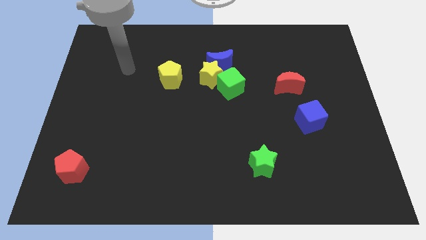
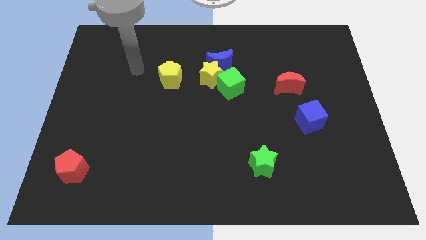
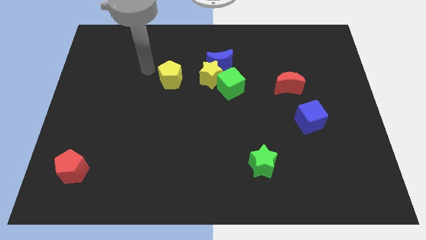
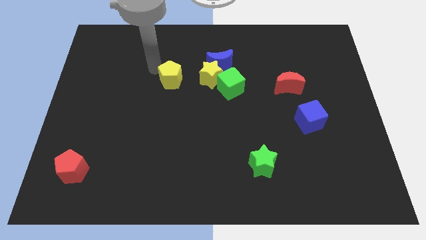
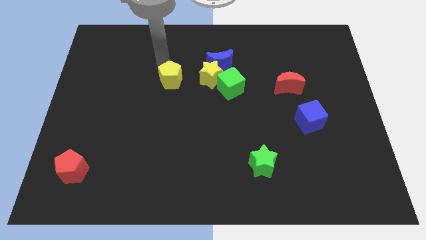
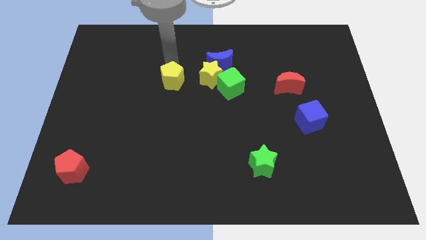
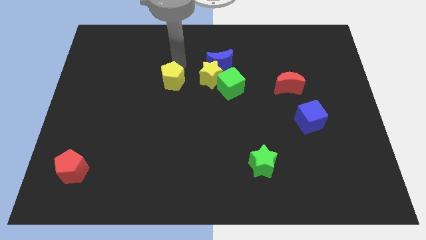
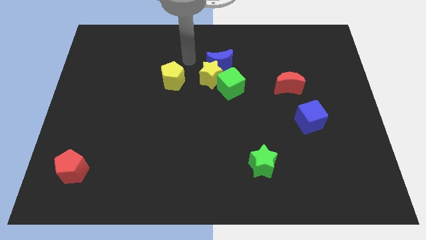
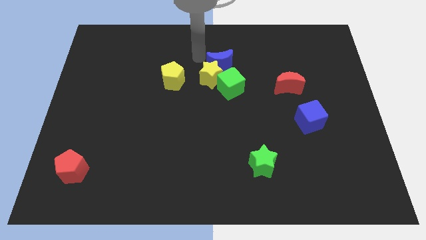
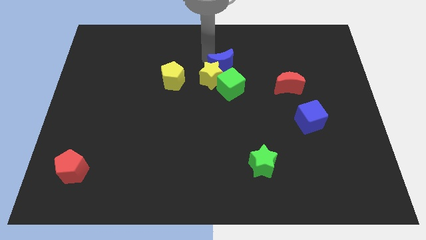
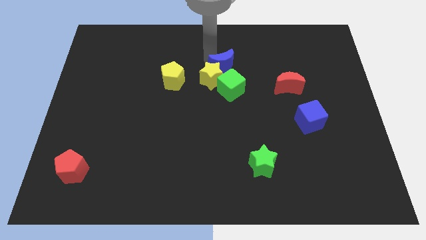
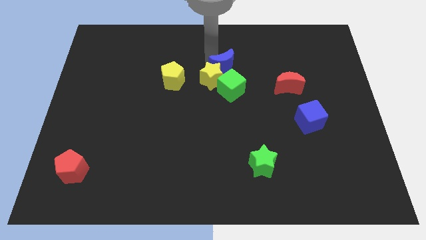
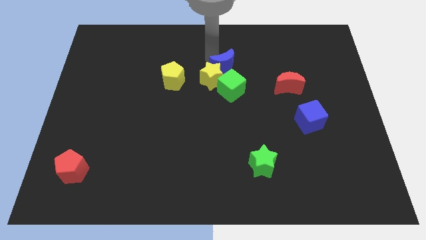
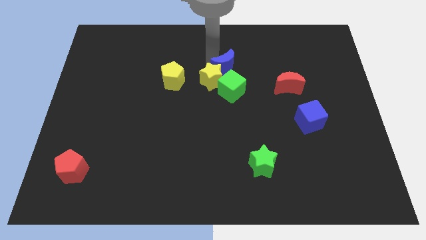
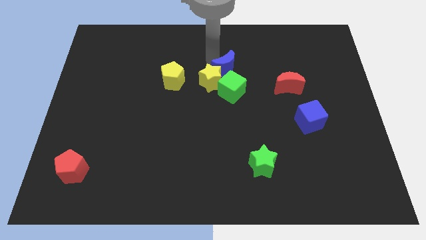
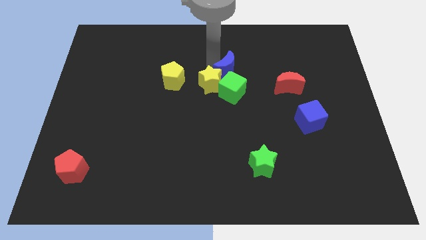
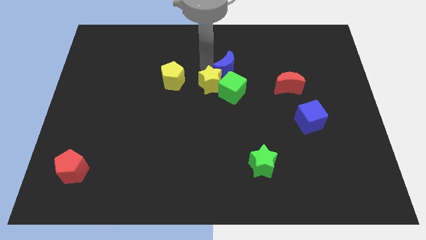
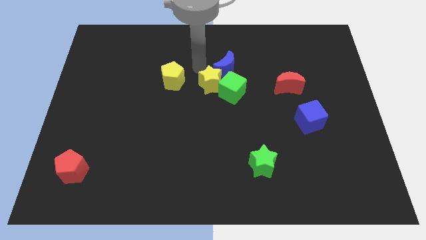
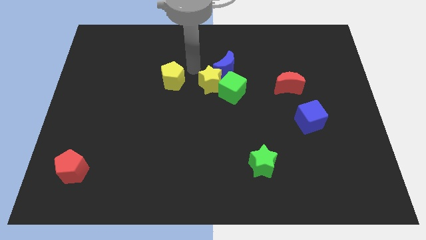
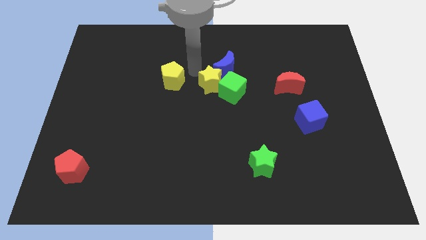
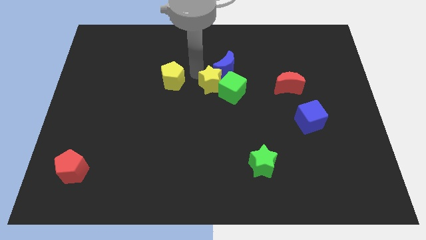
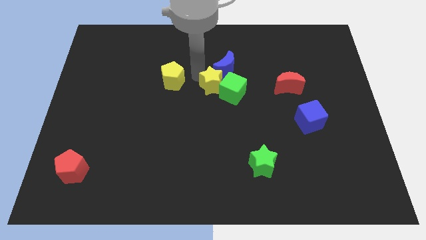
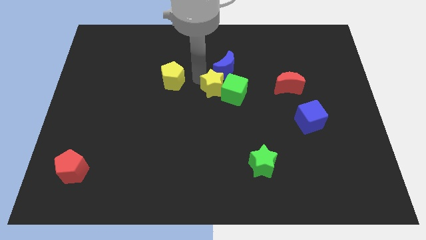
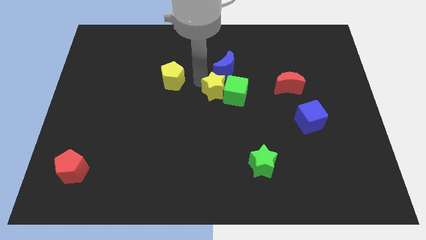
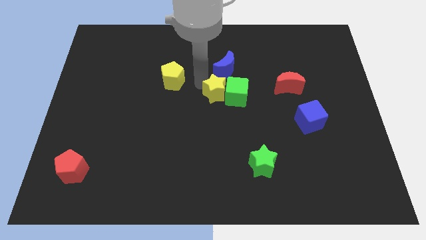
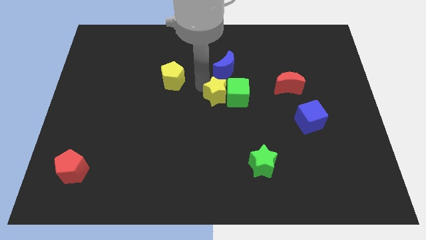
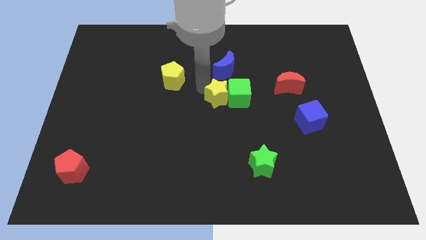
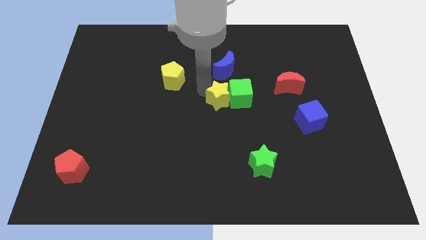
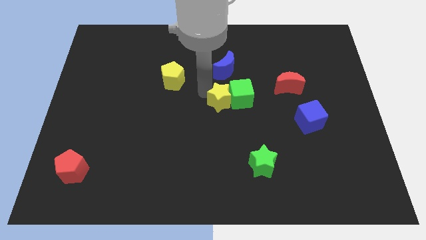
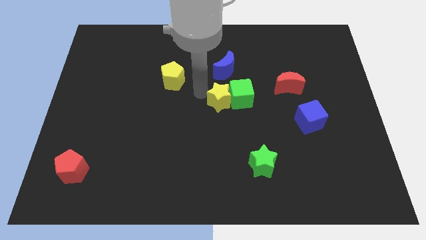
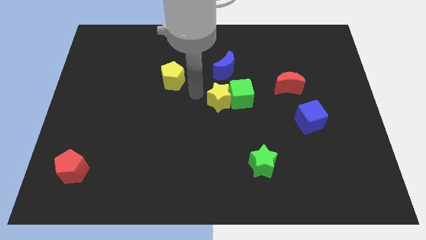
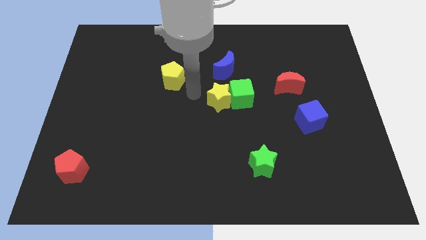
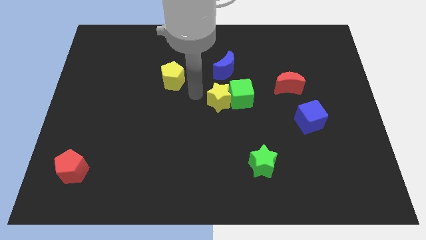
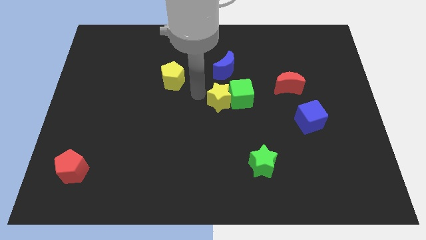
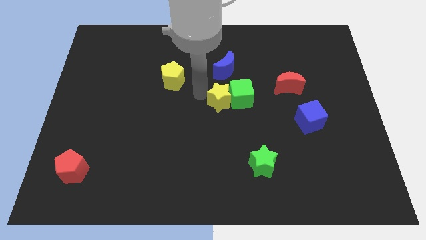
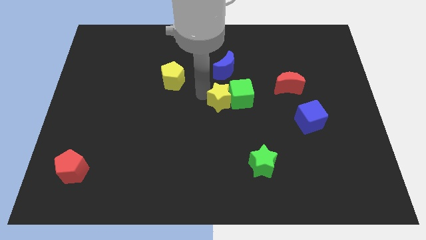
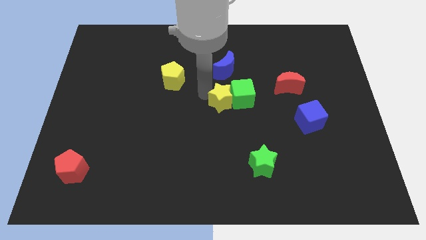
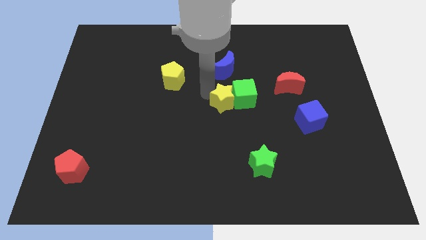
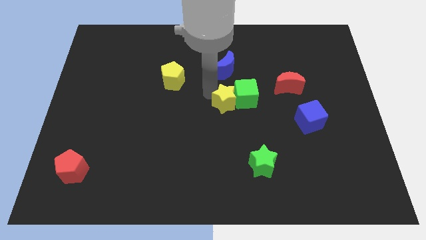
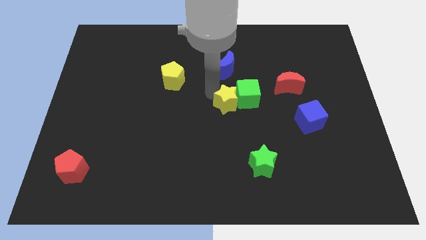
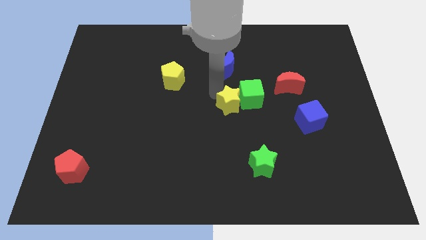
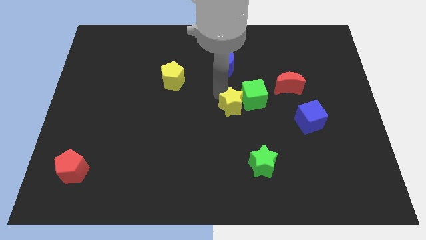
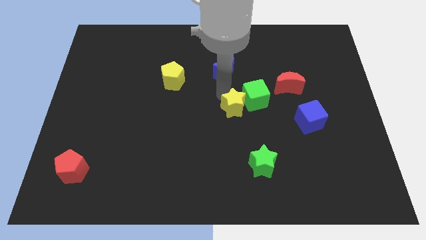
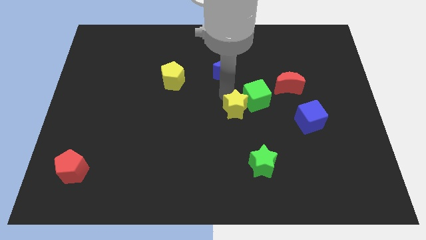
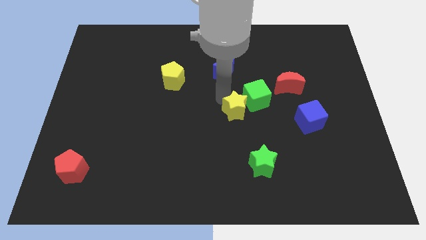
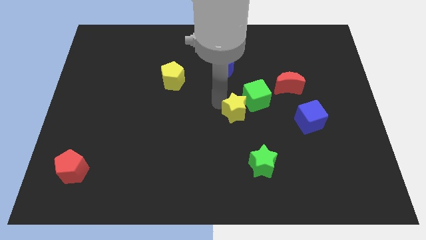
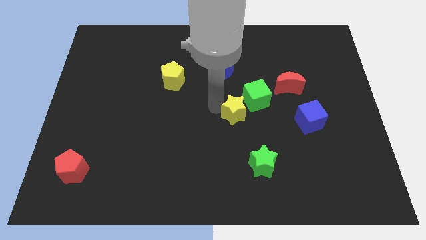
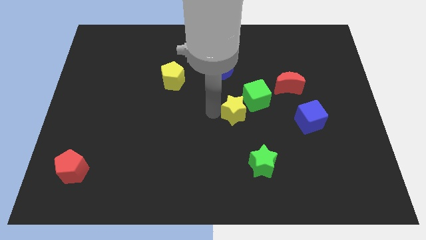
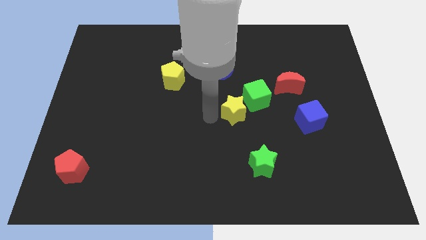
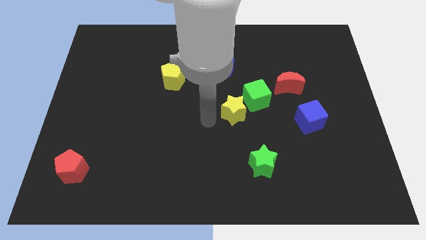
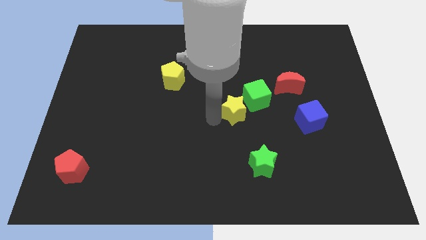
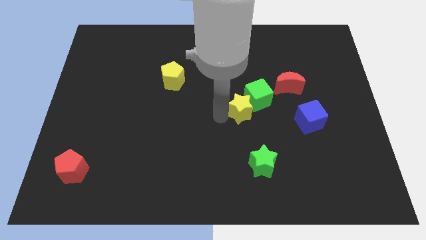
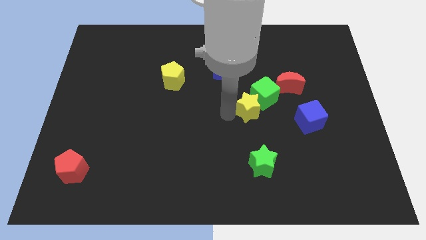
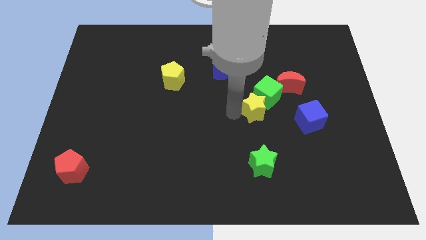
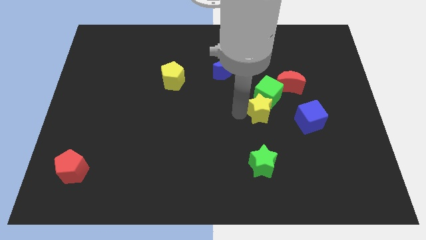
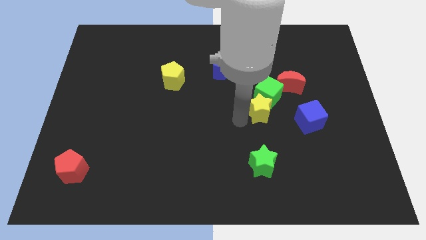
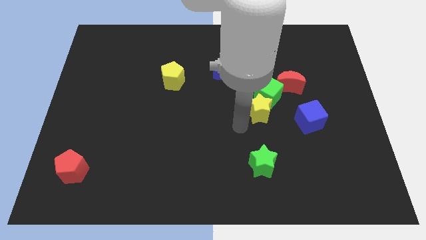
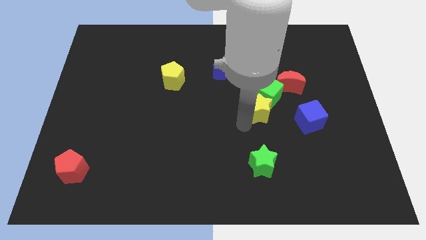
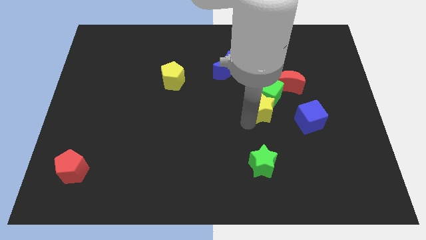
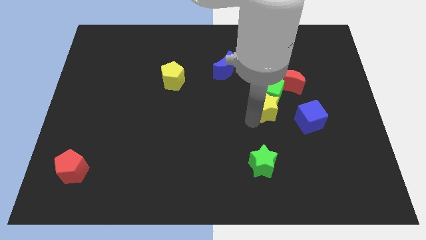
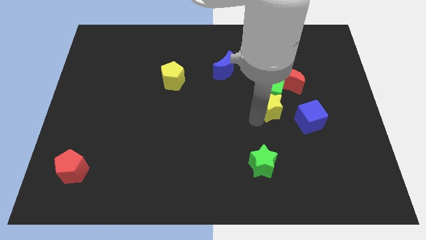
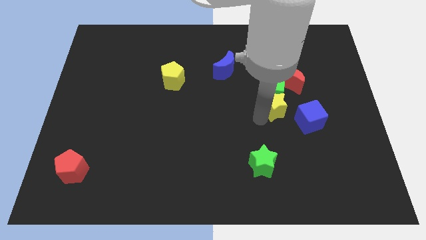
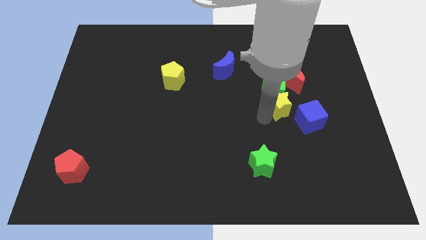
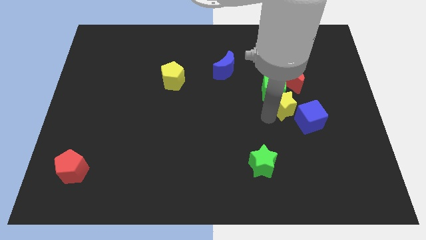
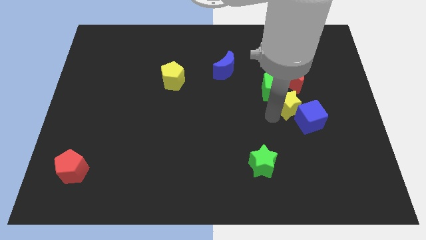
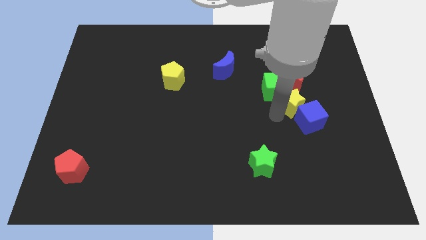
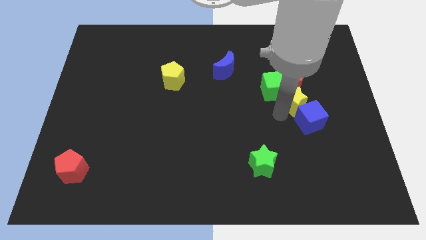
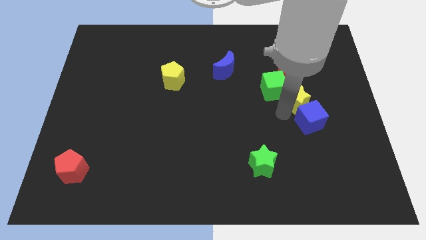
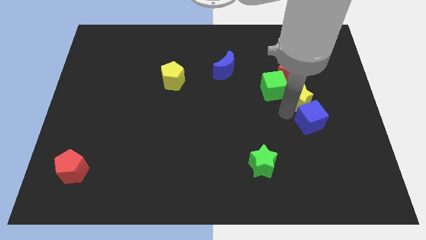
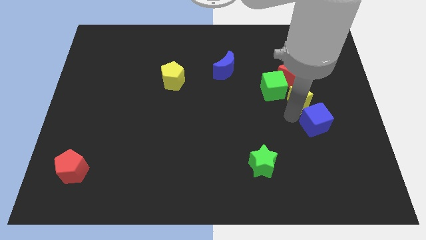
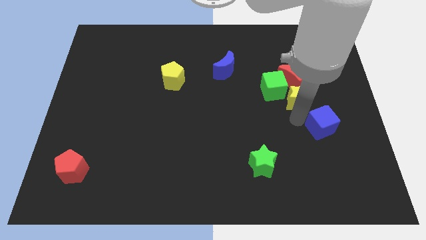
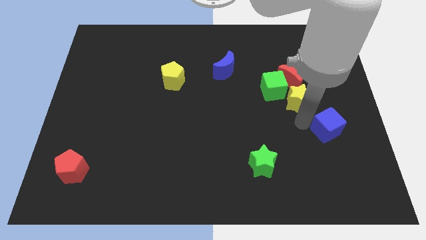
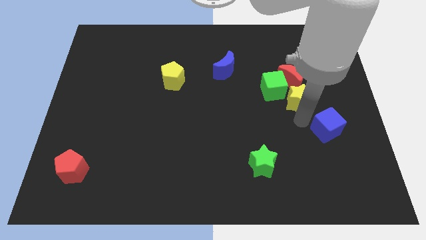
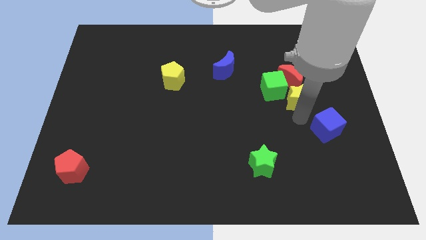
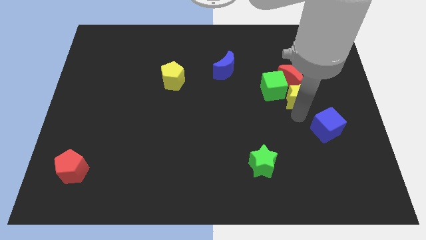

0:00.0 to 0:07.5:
push the yellow star close to the red moon
